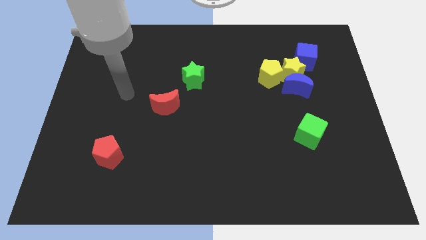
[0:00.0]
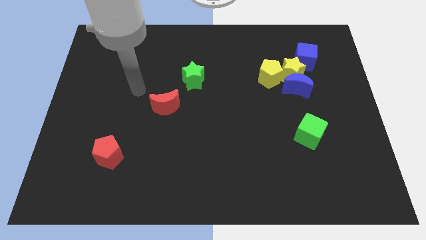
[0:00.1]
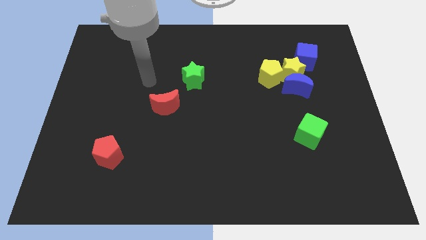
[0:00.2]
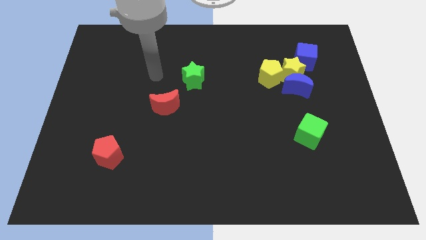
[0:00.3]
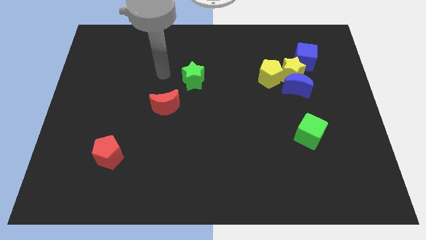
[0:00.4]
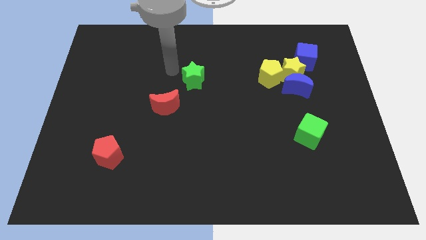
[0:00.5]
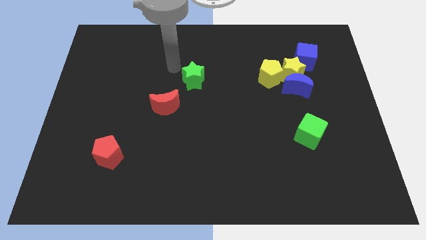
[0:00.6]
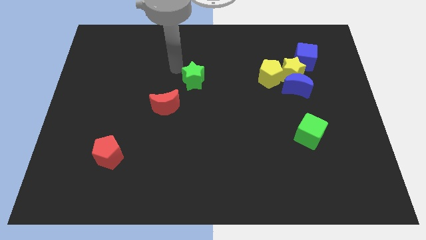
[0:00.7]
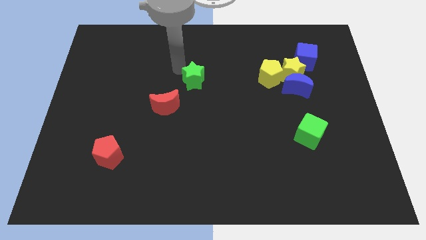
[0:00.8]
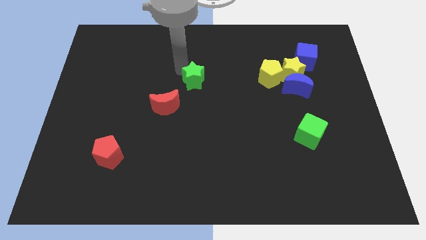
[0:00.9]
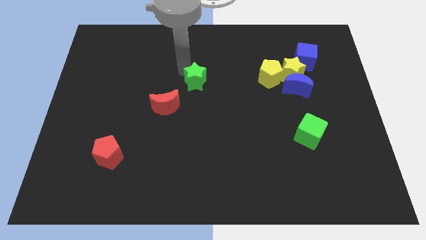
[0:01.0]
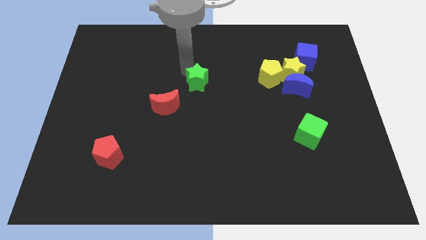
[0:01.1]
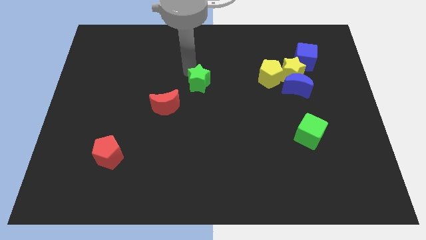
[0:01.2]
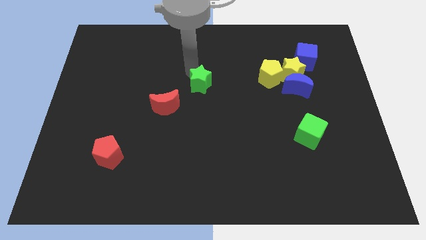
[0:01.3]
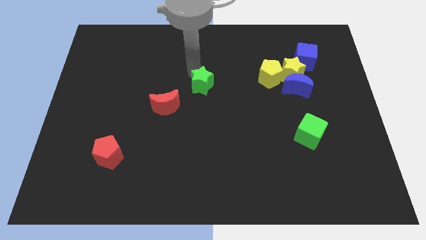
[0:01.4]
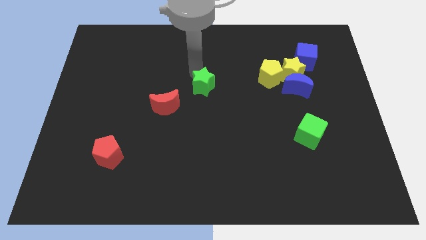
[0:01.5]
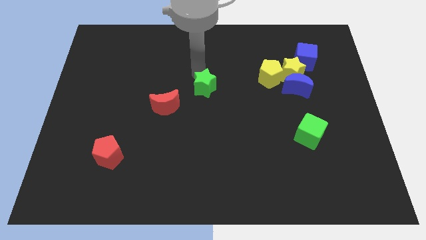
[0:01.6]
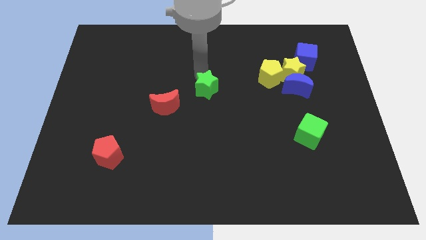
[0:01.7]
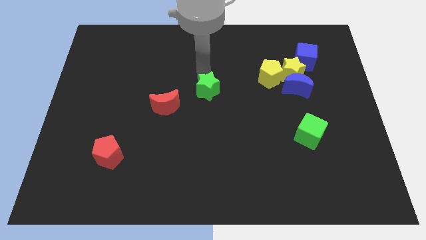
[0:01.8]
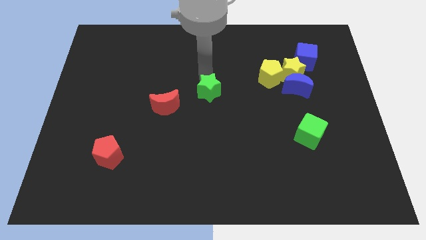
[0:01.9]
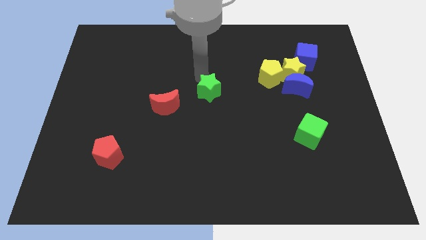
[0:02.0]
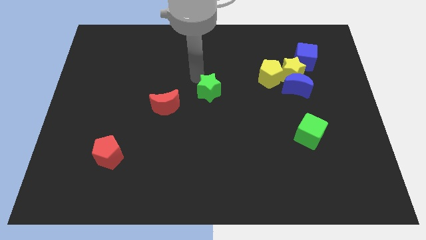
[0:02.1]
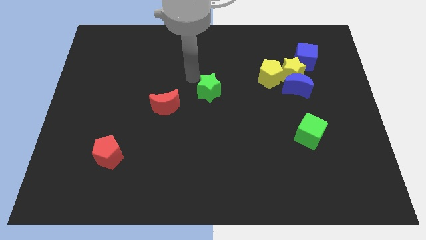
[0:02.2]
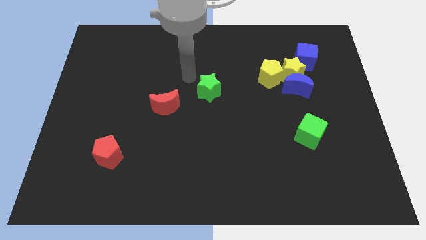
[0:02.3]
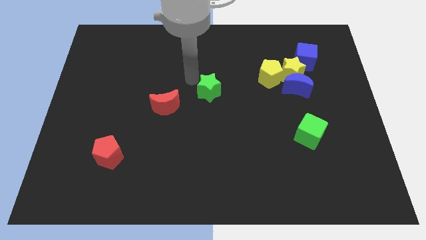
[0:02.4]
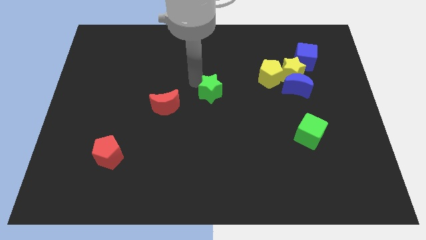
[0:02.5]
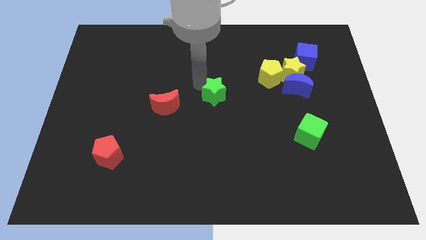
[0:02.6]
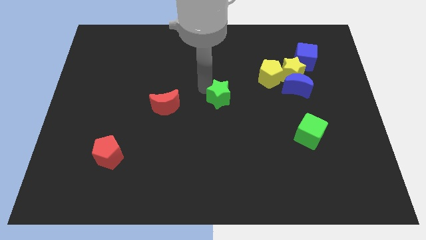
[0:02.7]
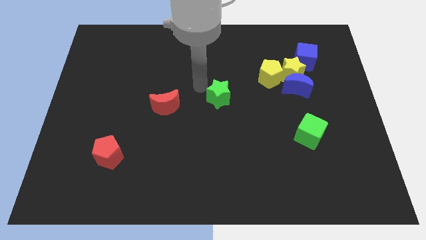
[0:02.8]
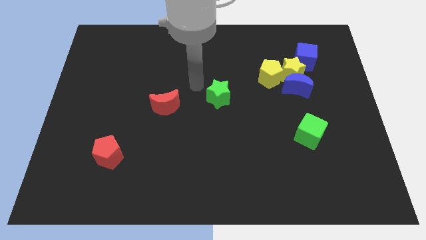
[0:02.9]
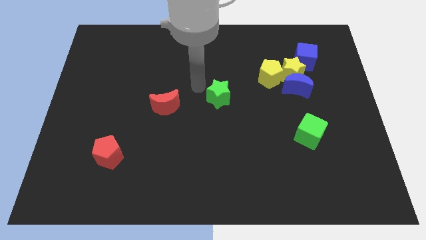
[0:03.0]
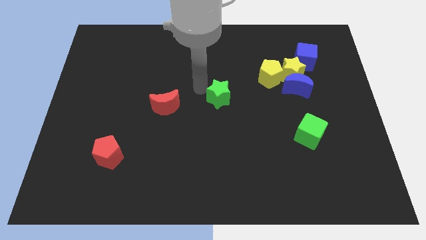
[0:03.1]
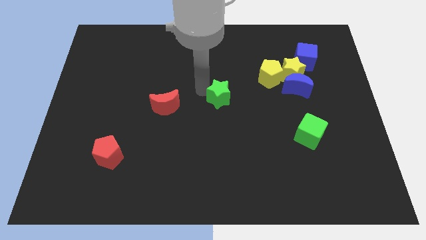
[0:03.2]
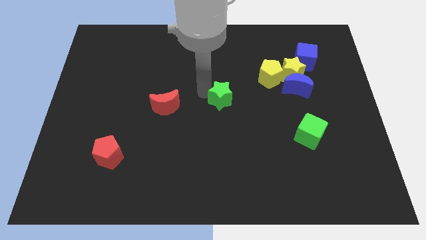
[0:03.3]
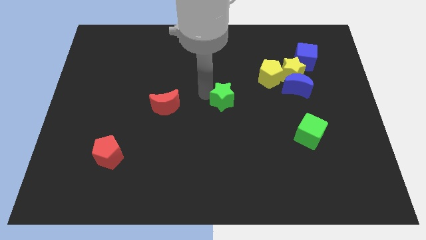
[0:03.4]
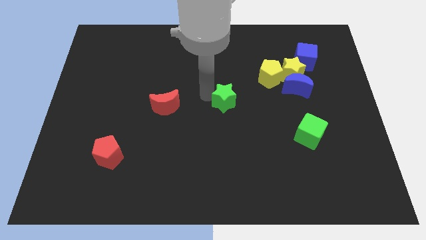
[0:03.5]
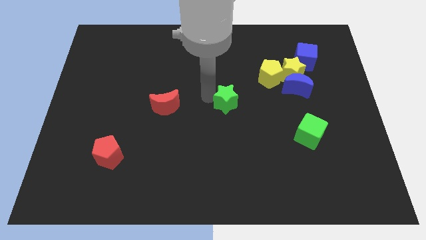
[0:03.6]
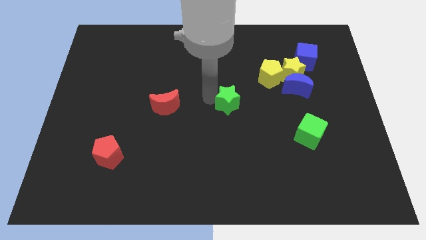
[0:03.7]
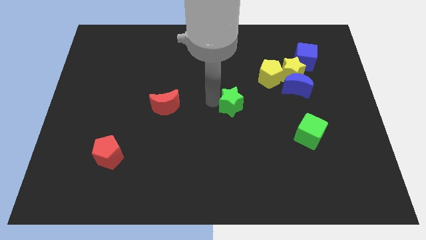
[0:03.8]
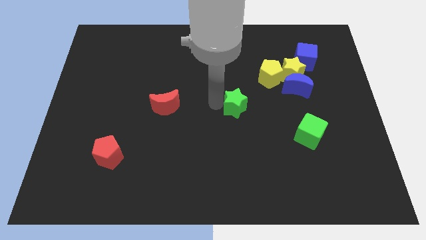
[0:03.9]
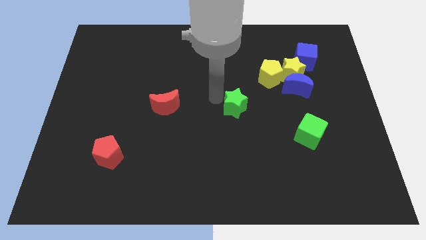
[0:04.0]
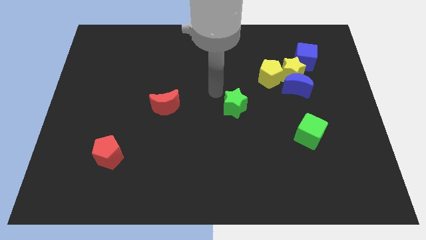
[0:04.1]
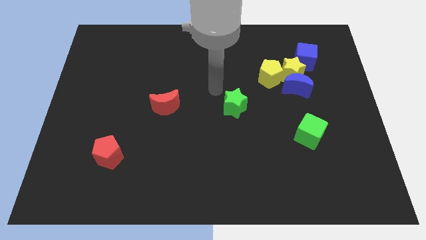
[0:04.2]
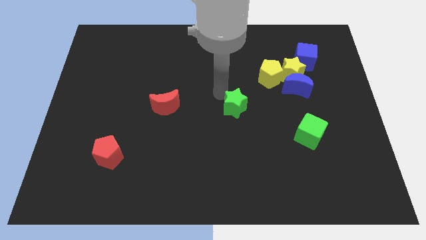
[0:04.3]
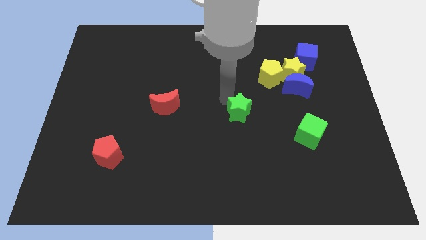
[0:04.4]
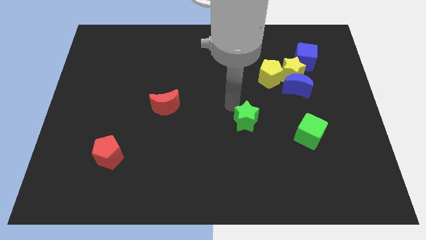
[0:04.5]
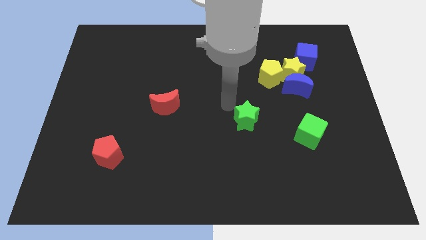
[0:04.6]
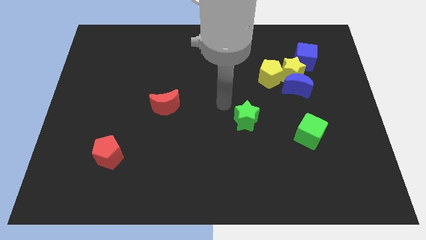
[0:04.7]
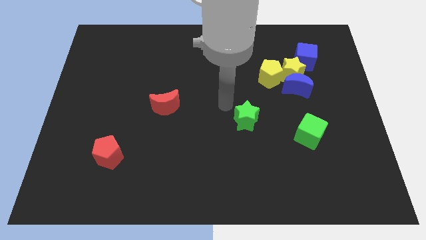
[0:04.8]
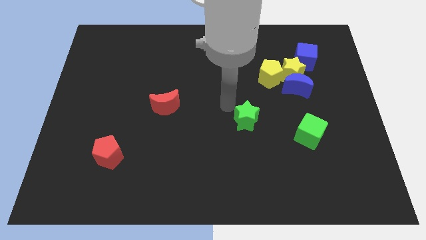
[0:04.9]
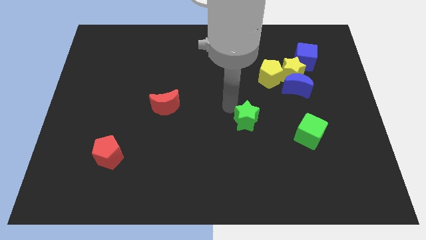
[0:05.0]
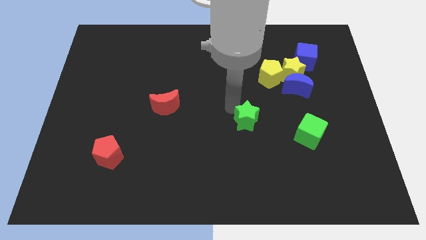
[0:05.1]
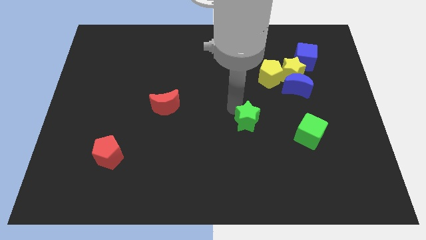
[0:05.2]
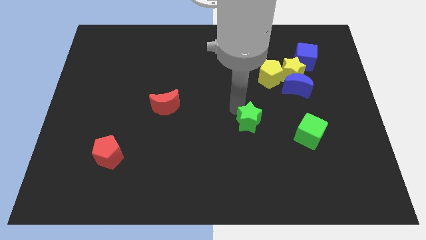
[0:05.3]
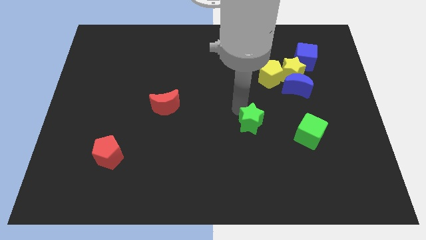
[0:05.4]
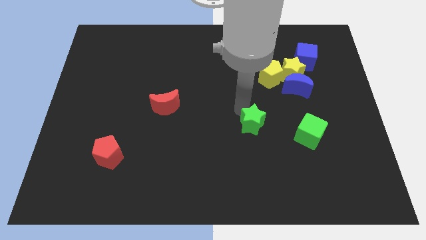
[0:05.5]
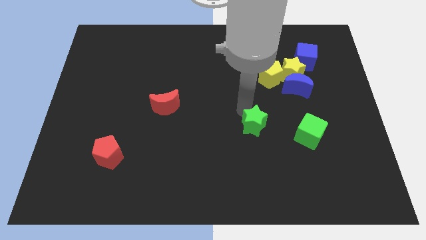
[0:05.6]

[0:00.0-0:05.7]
slide the green star down and to the right

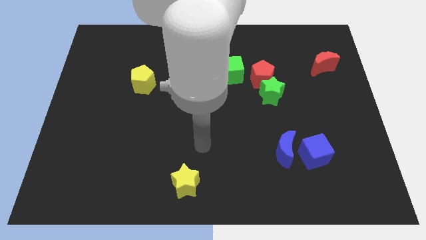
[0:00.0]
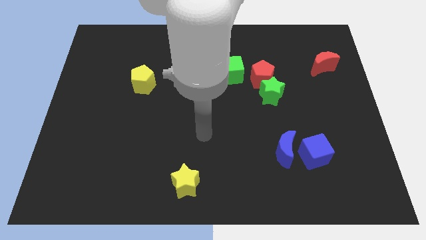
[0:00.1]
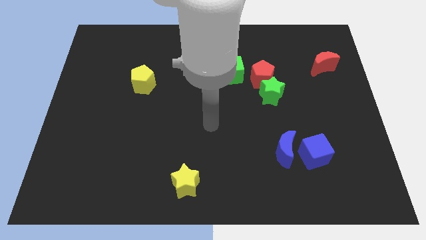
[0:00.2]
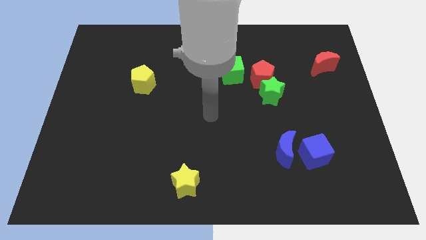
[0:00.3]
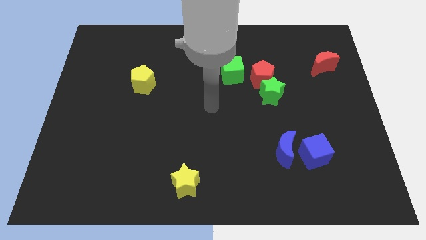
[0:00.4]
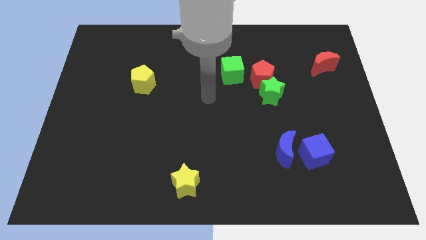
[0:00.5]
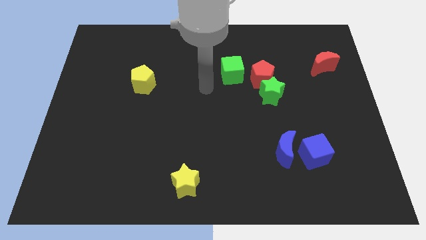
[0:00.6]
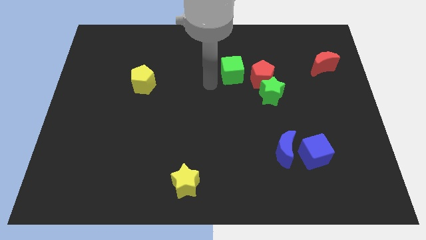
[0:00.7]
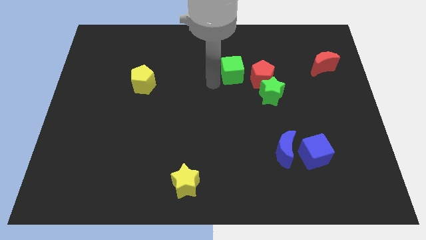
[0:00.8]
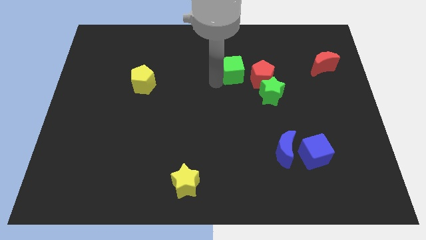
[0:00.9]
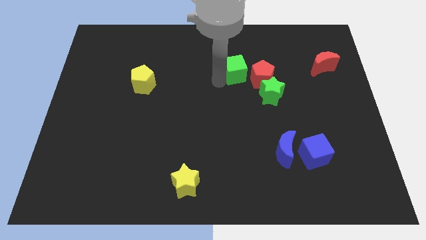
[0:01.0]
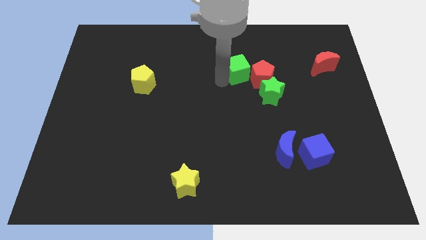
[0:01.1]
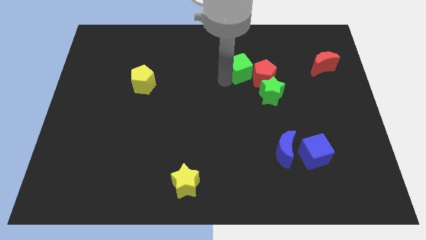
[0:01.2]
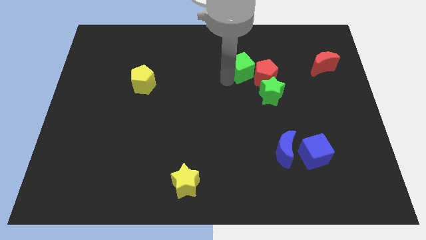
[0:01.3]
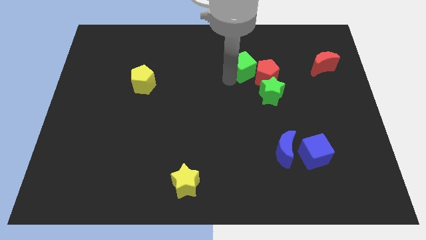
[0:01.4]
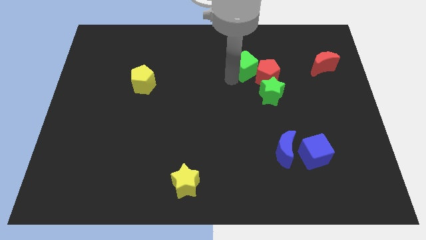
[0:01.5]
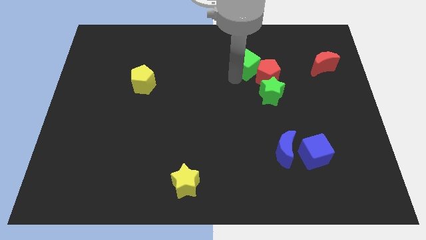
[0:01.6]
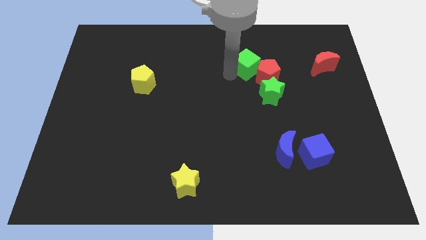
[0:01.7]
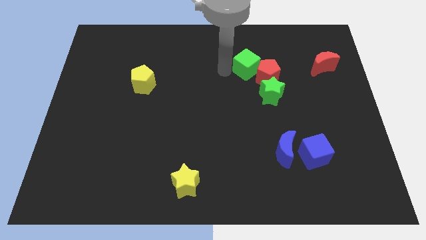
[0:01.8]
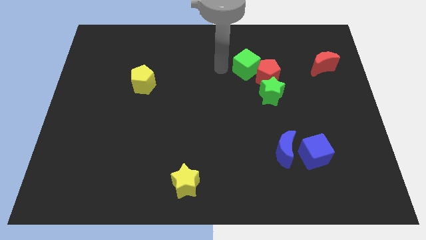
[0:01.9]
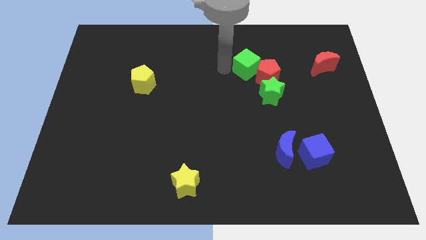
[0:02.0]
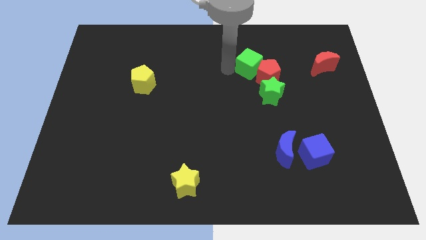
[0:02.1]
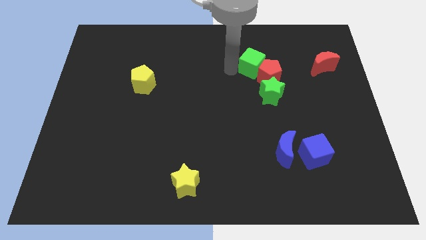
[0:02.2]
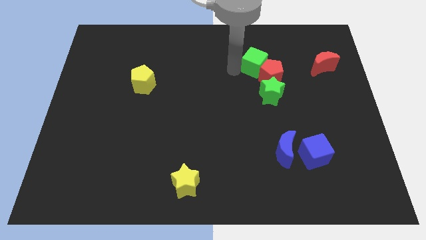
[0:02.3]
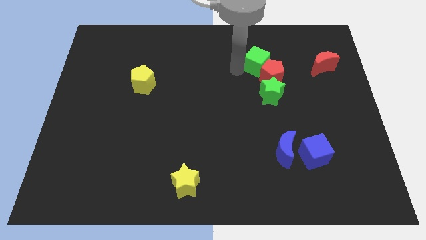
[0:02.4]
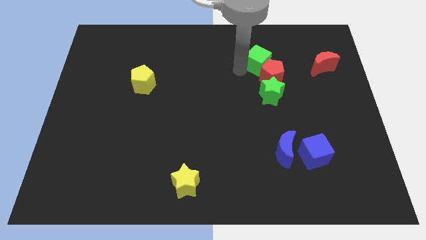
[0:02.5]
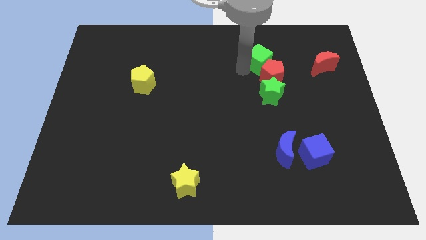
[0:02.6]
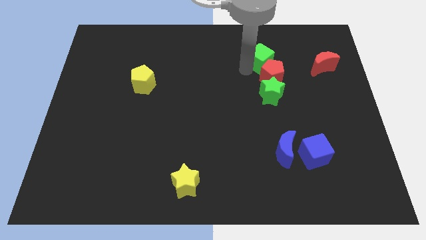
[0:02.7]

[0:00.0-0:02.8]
slide the green cube to the right slightly
